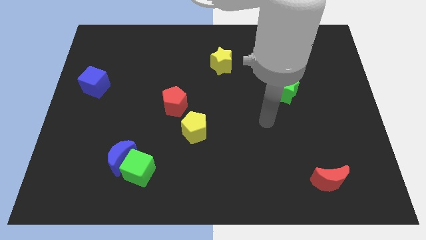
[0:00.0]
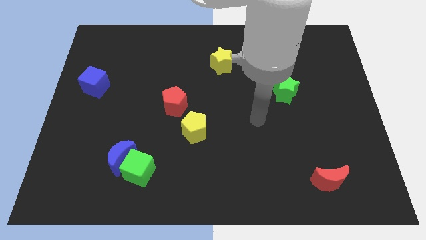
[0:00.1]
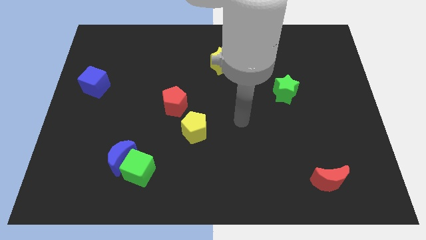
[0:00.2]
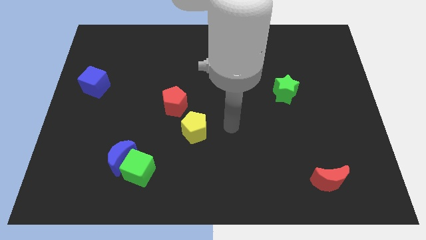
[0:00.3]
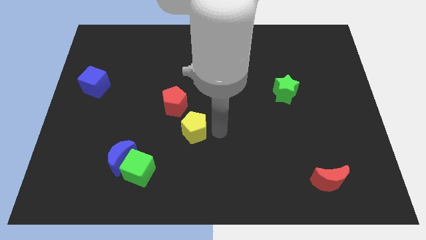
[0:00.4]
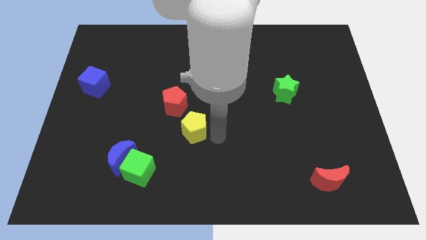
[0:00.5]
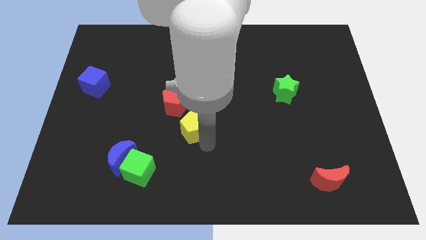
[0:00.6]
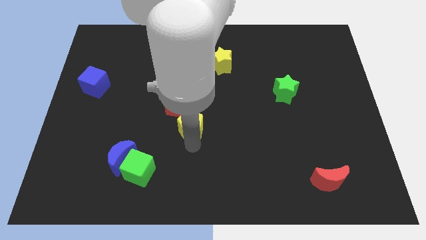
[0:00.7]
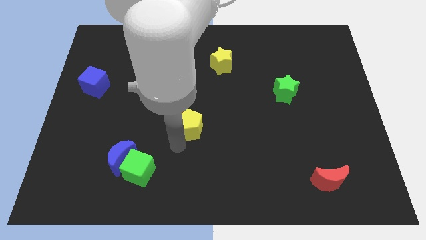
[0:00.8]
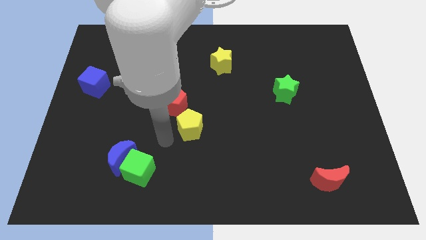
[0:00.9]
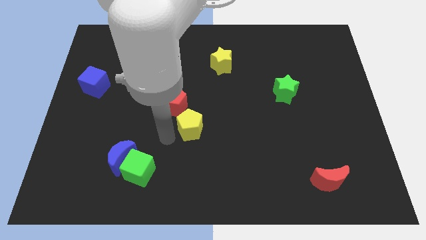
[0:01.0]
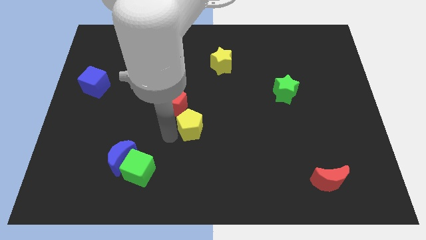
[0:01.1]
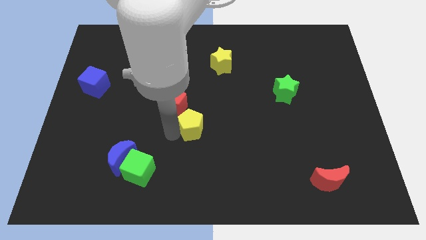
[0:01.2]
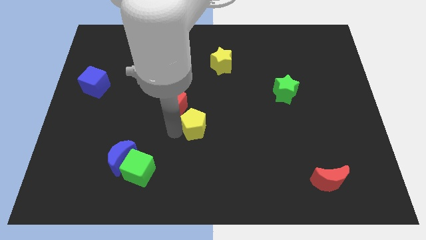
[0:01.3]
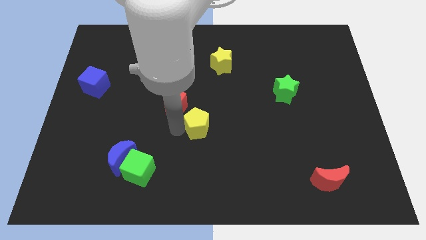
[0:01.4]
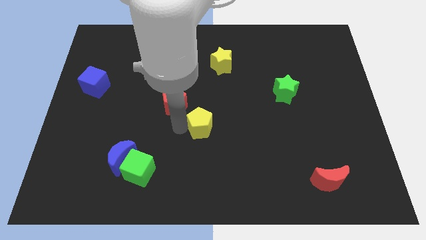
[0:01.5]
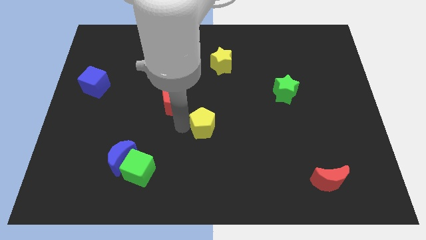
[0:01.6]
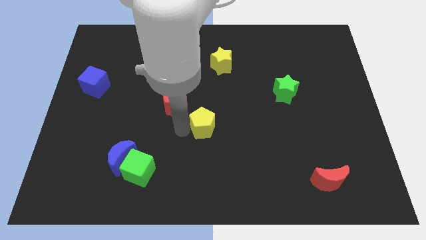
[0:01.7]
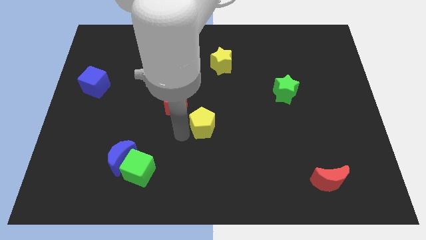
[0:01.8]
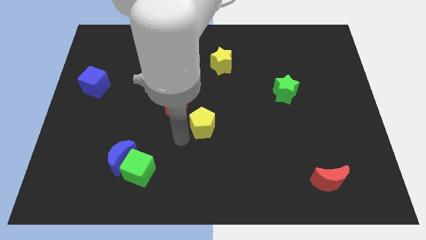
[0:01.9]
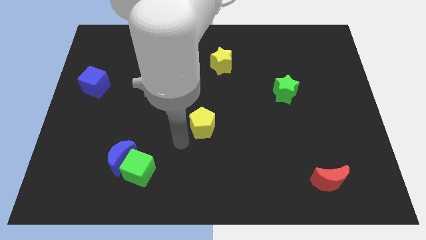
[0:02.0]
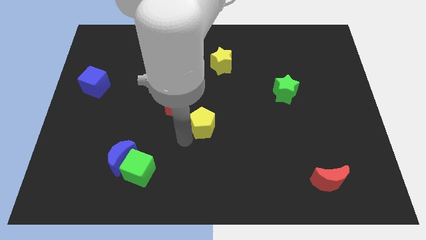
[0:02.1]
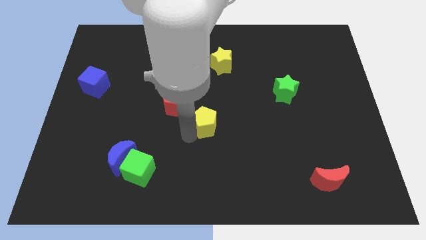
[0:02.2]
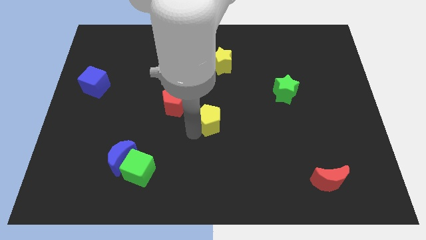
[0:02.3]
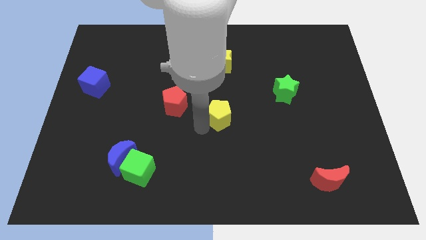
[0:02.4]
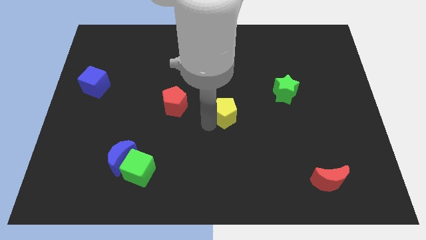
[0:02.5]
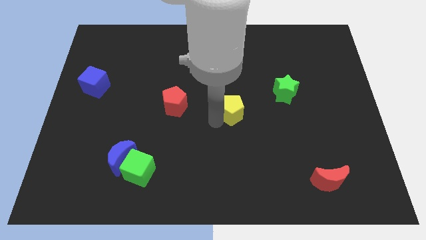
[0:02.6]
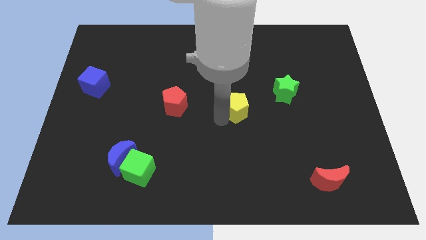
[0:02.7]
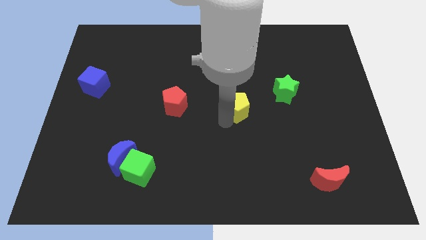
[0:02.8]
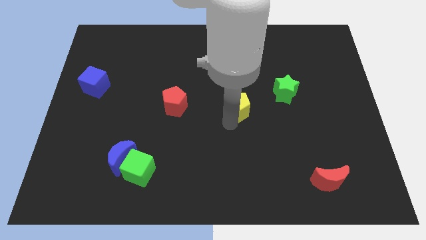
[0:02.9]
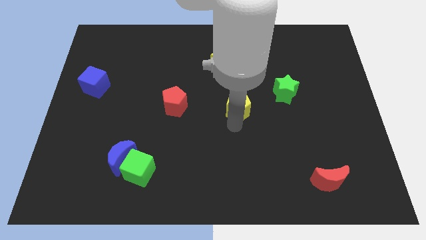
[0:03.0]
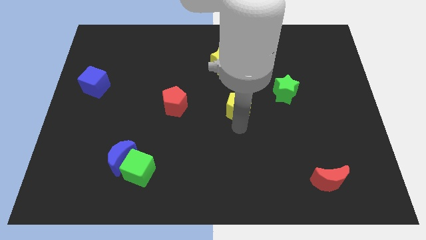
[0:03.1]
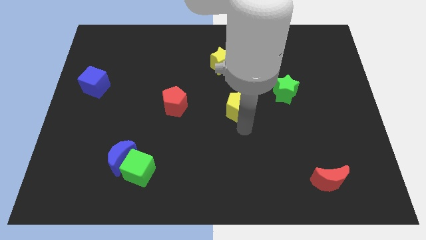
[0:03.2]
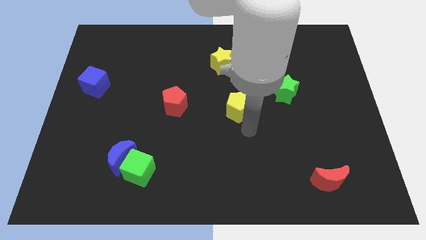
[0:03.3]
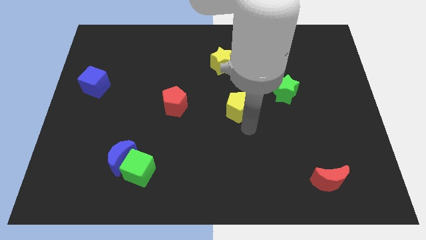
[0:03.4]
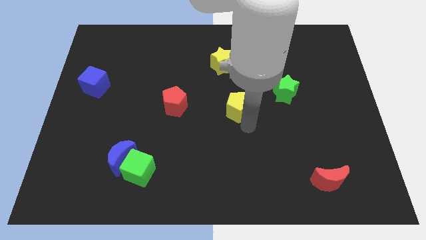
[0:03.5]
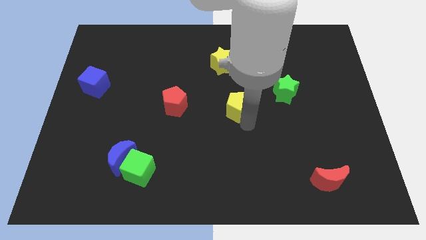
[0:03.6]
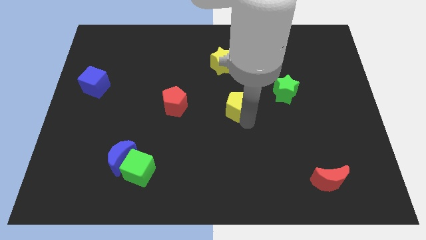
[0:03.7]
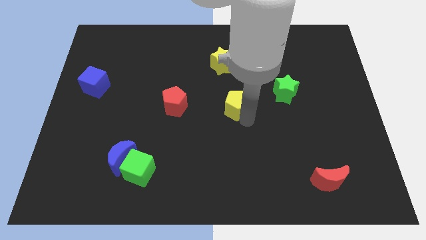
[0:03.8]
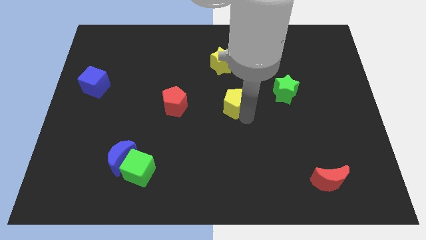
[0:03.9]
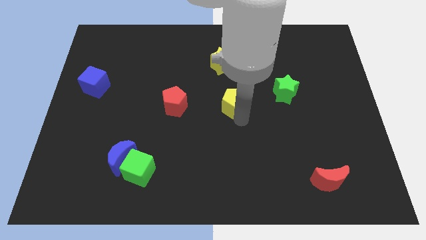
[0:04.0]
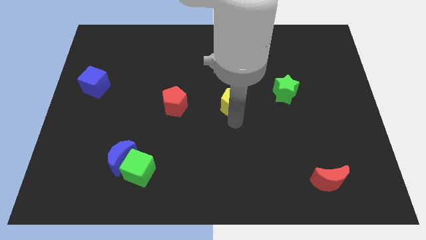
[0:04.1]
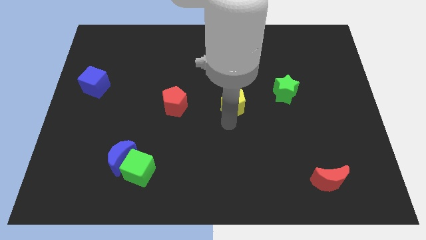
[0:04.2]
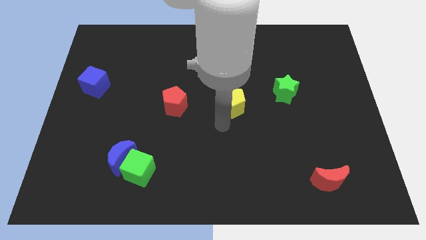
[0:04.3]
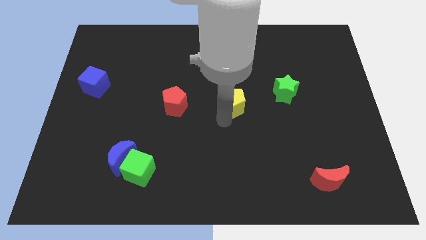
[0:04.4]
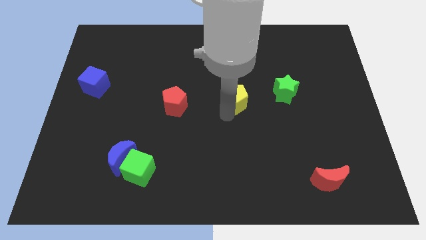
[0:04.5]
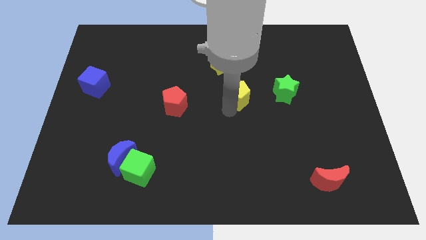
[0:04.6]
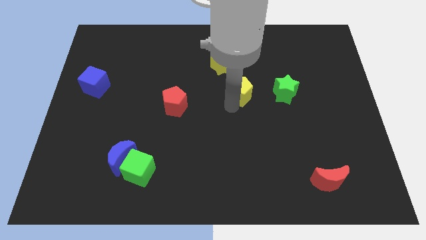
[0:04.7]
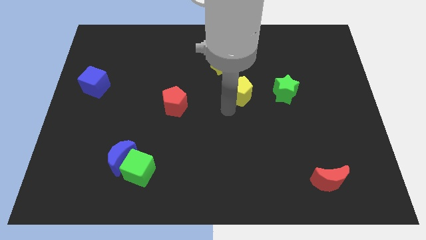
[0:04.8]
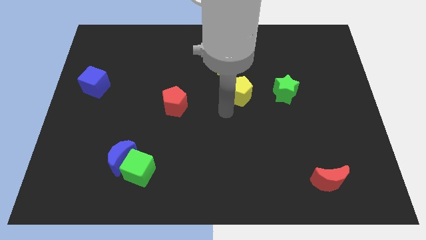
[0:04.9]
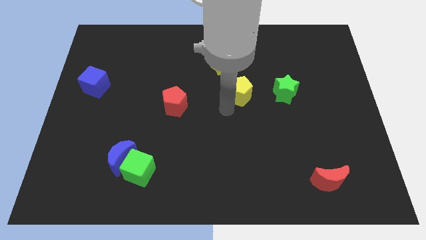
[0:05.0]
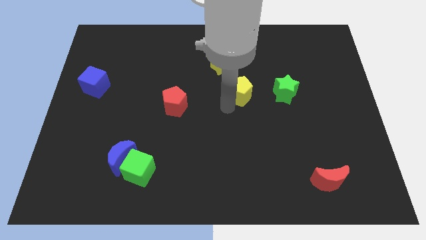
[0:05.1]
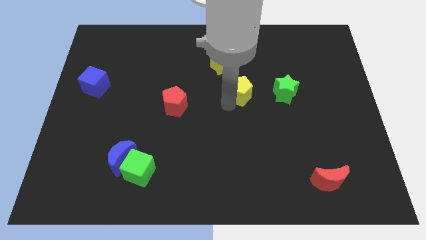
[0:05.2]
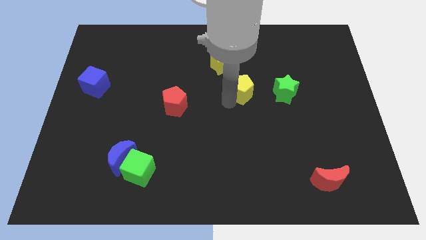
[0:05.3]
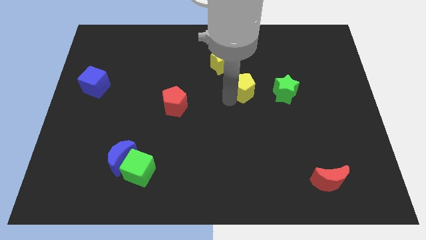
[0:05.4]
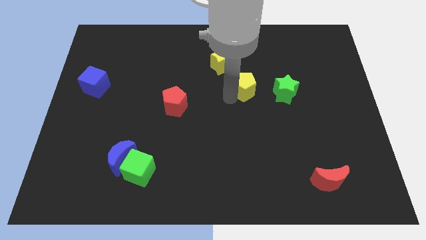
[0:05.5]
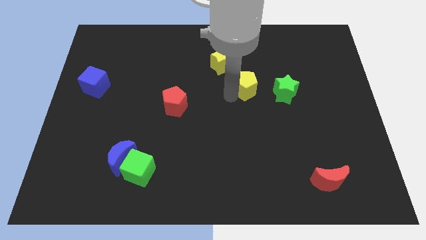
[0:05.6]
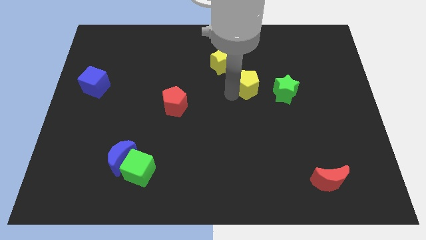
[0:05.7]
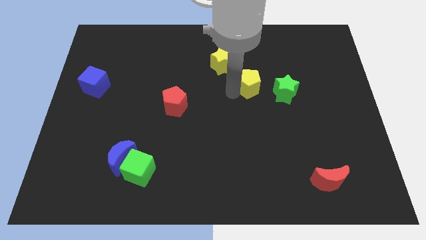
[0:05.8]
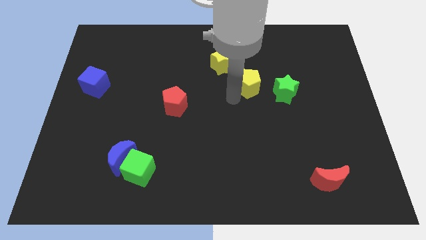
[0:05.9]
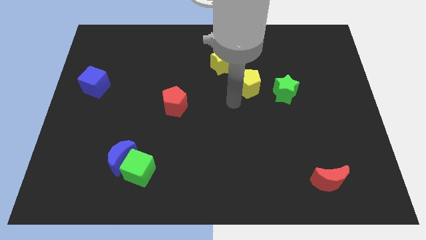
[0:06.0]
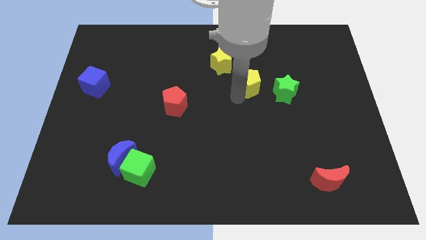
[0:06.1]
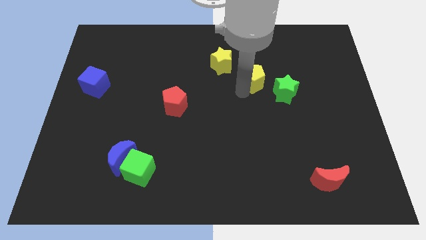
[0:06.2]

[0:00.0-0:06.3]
slide the yellow pentagon up and right

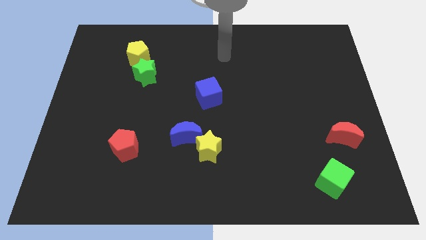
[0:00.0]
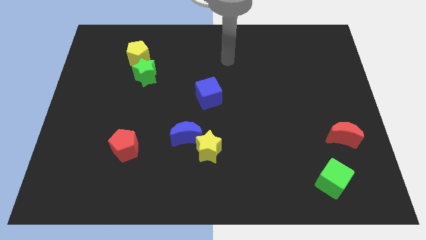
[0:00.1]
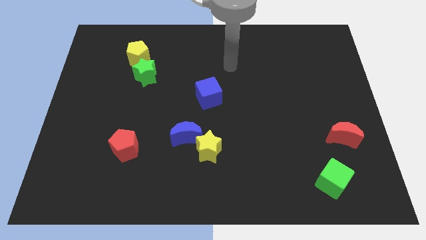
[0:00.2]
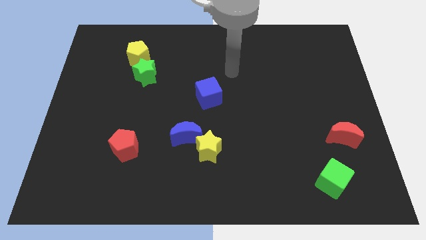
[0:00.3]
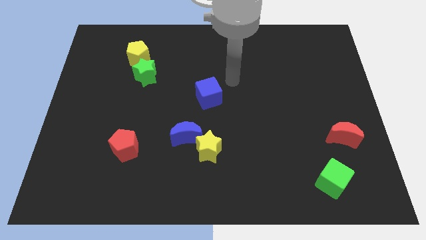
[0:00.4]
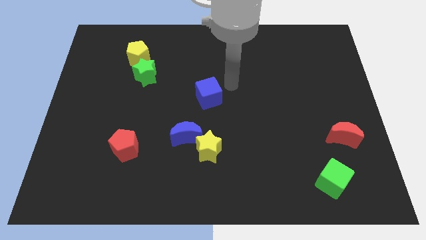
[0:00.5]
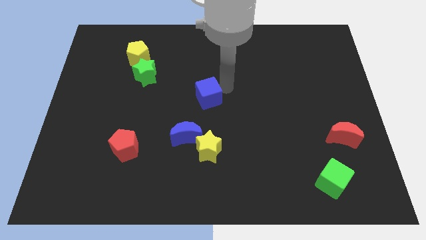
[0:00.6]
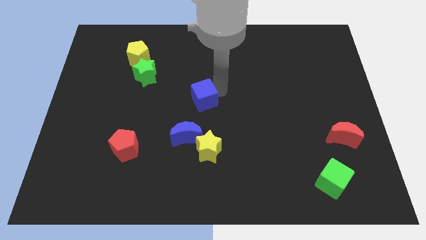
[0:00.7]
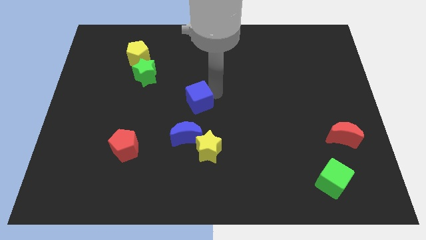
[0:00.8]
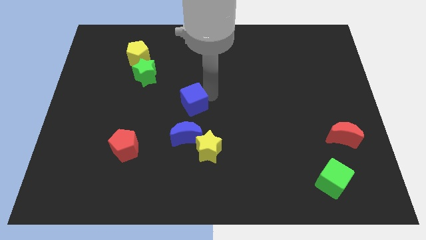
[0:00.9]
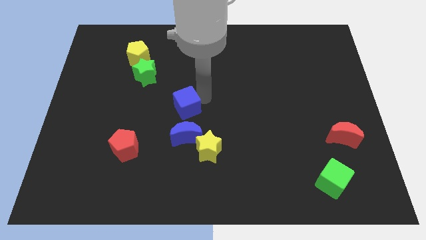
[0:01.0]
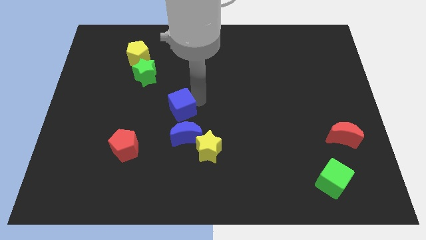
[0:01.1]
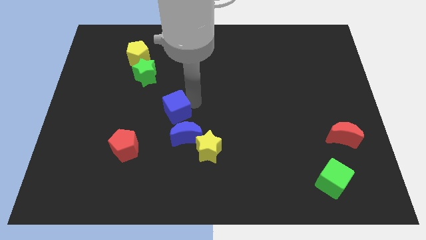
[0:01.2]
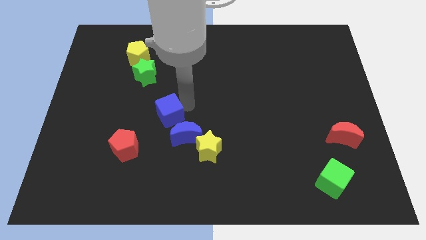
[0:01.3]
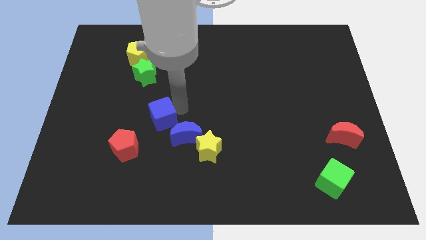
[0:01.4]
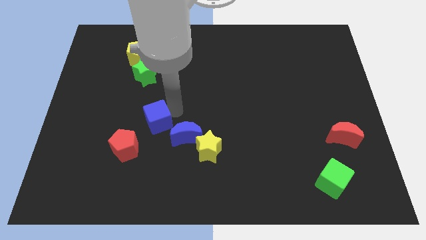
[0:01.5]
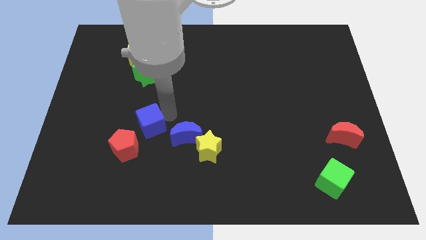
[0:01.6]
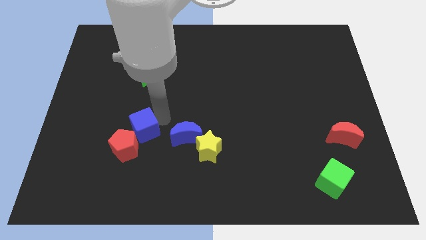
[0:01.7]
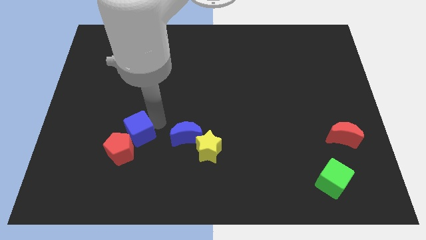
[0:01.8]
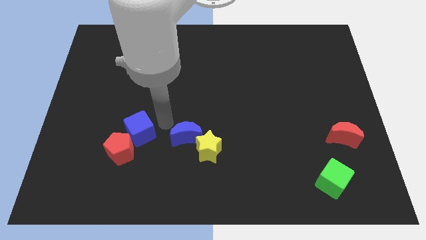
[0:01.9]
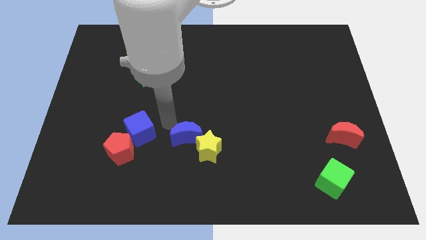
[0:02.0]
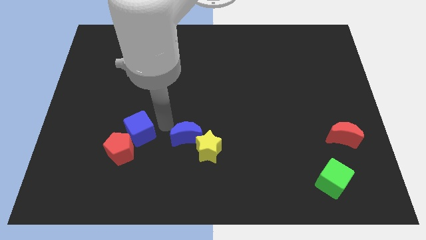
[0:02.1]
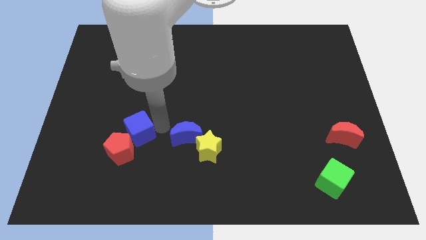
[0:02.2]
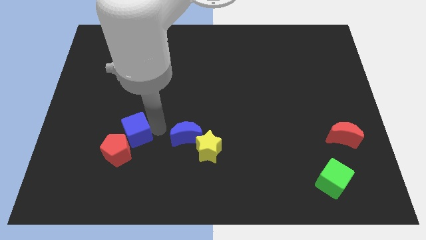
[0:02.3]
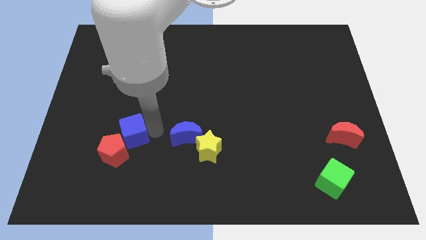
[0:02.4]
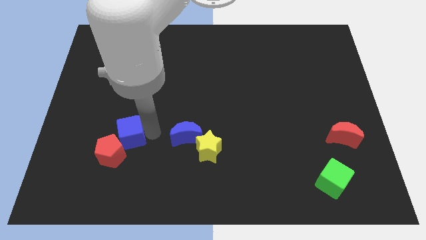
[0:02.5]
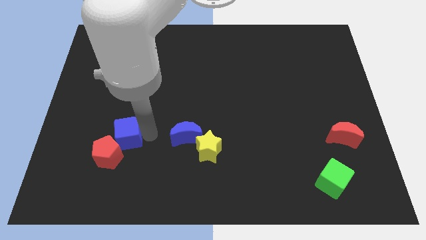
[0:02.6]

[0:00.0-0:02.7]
move the blue cube diagonally down and to the left
